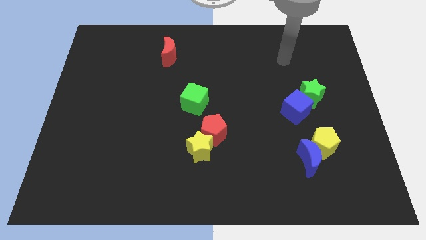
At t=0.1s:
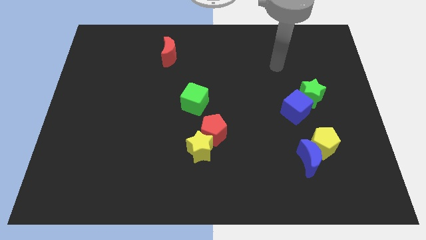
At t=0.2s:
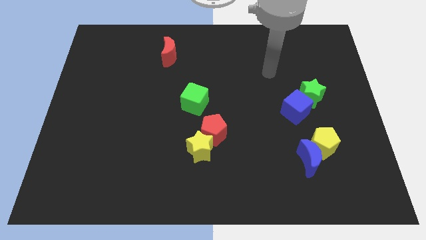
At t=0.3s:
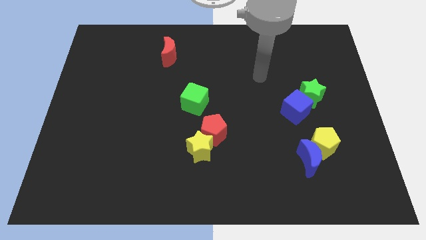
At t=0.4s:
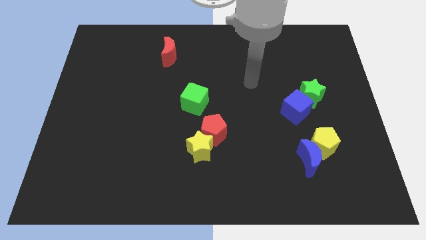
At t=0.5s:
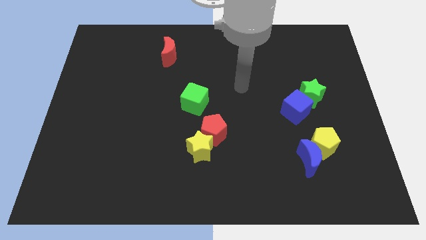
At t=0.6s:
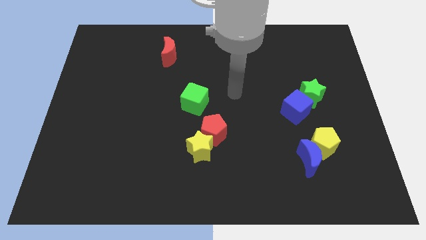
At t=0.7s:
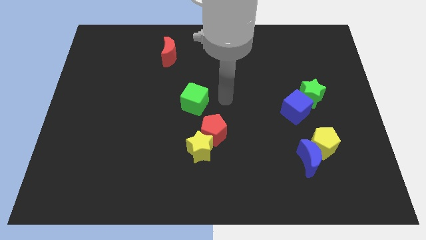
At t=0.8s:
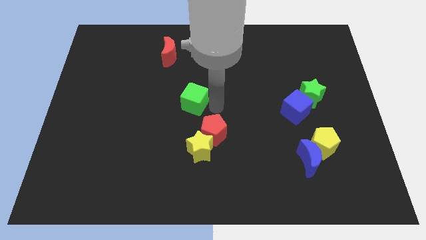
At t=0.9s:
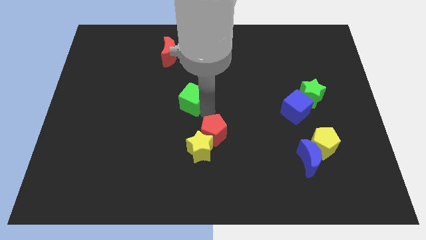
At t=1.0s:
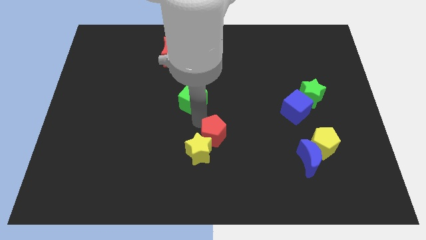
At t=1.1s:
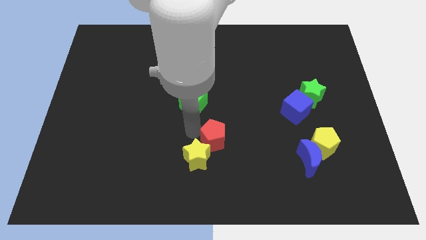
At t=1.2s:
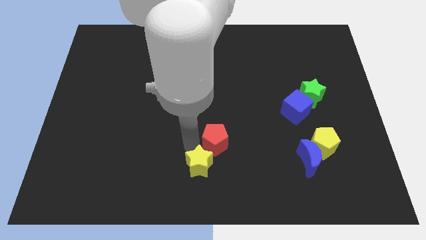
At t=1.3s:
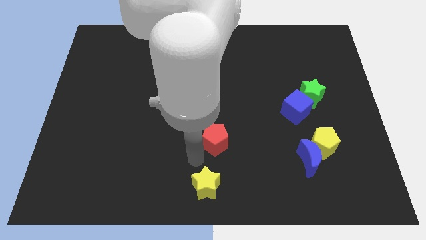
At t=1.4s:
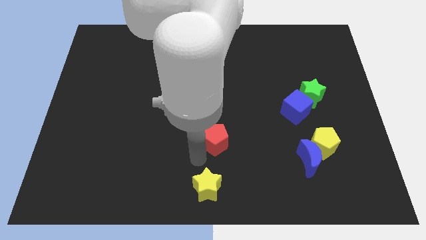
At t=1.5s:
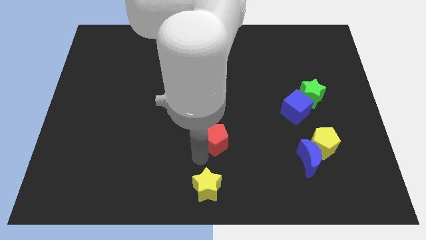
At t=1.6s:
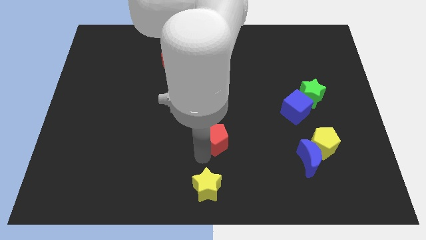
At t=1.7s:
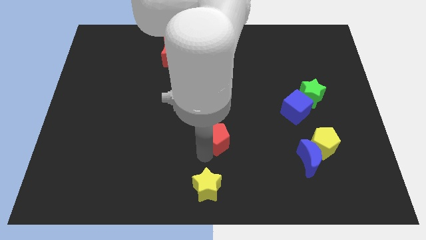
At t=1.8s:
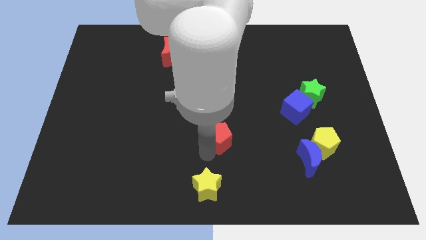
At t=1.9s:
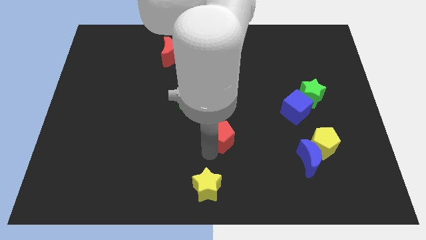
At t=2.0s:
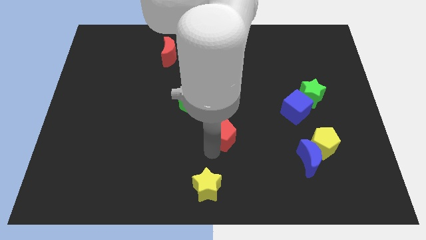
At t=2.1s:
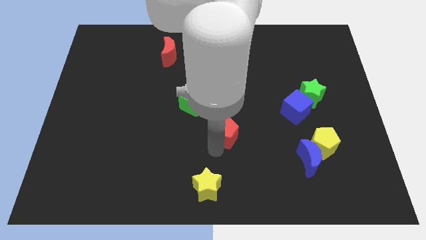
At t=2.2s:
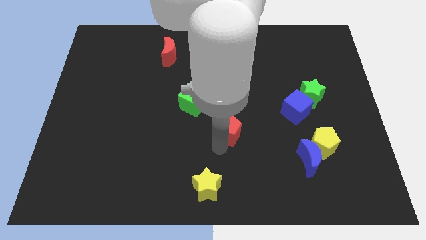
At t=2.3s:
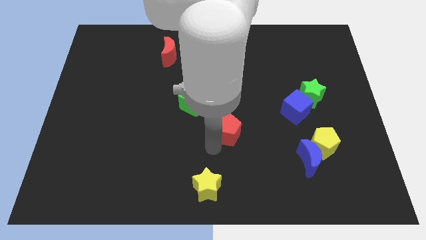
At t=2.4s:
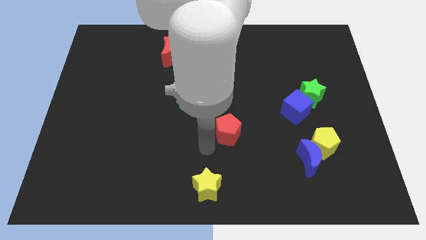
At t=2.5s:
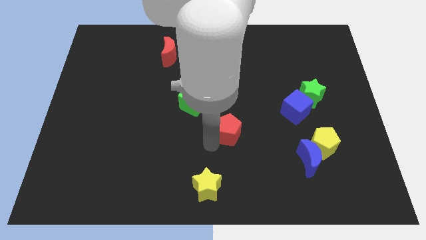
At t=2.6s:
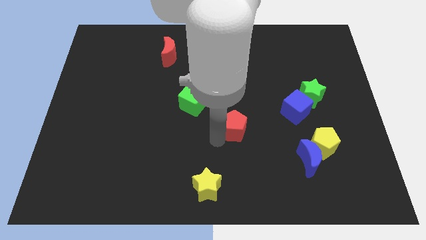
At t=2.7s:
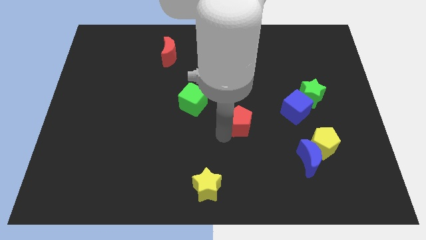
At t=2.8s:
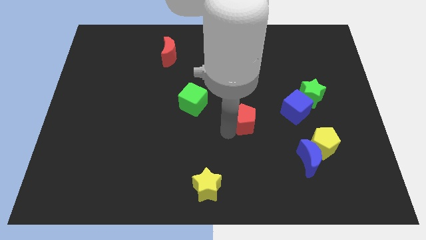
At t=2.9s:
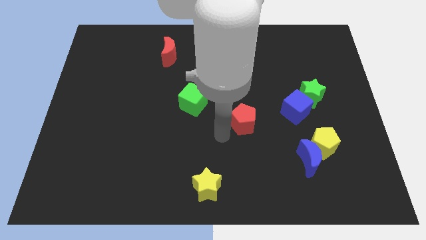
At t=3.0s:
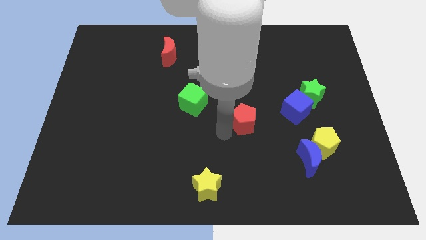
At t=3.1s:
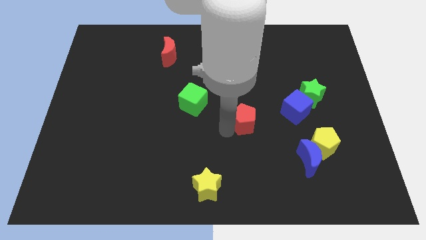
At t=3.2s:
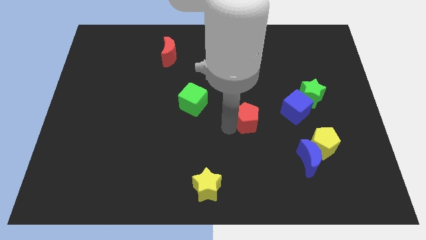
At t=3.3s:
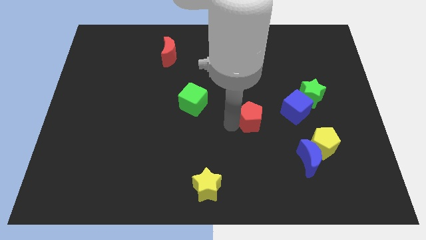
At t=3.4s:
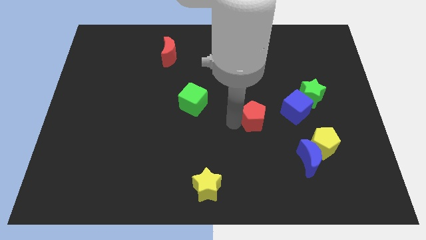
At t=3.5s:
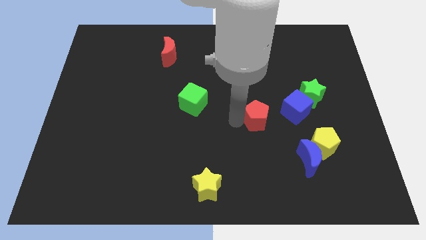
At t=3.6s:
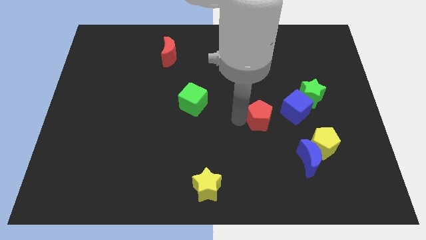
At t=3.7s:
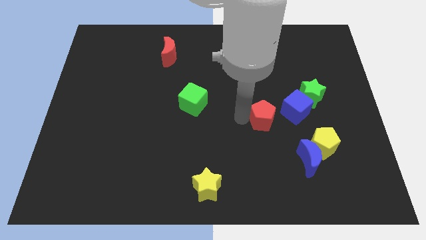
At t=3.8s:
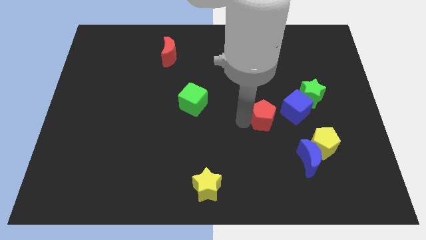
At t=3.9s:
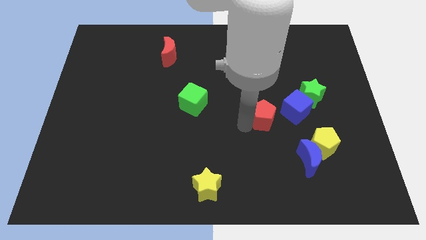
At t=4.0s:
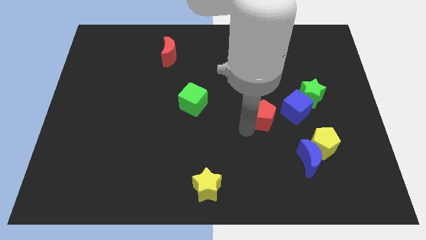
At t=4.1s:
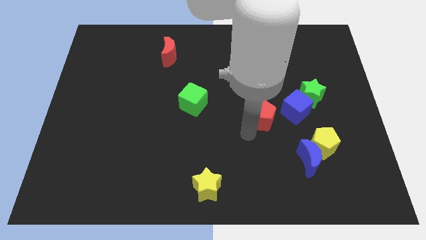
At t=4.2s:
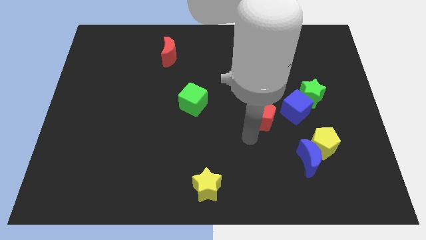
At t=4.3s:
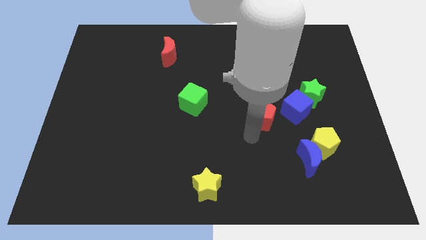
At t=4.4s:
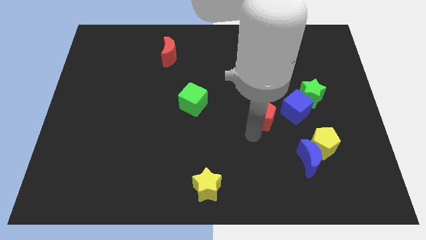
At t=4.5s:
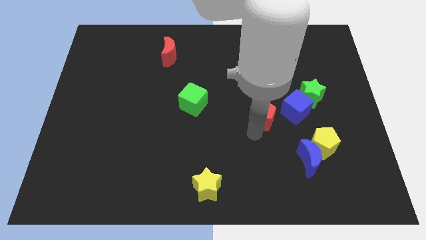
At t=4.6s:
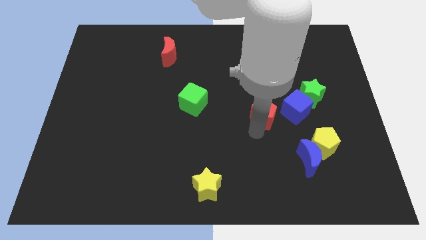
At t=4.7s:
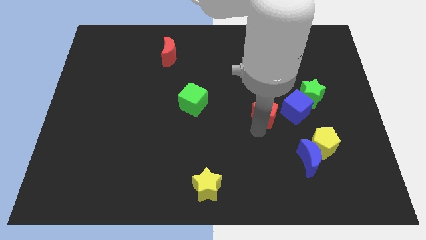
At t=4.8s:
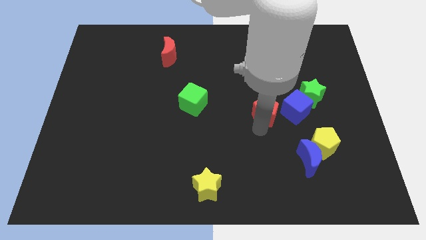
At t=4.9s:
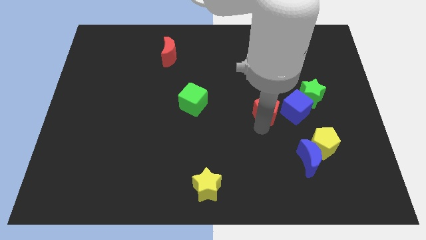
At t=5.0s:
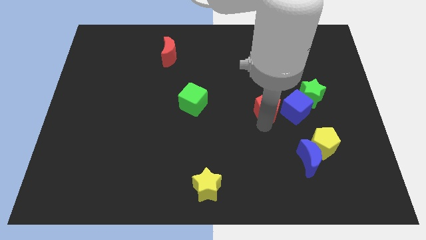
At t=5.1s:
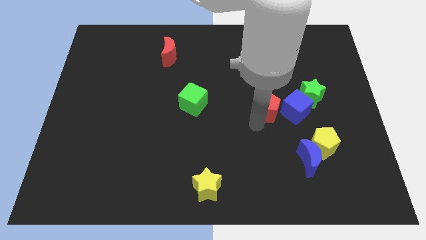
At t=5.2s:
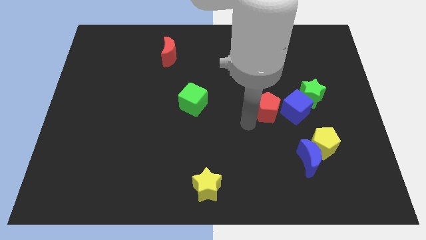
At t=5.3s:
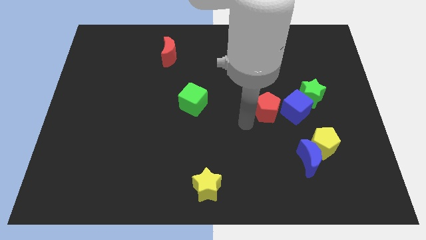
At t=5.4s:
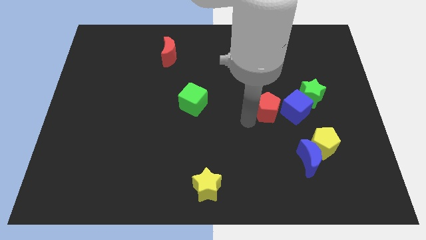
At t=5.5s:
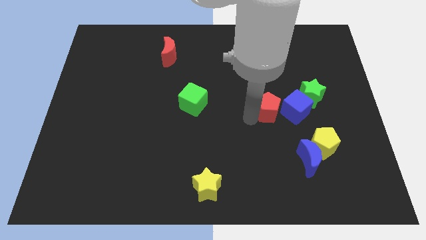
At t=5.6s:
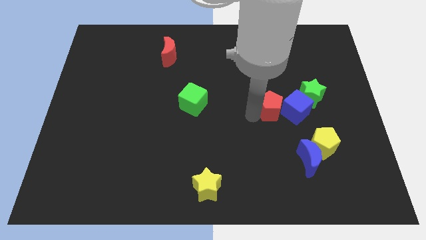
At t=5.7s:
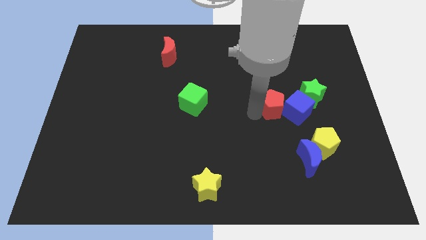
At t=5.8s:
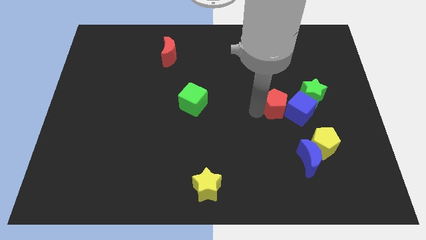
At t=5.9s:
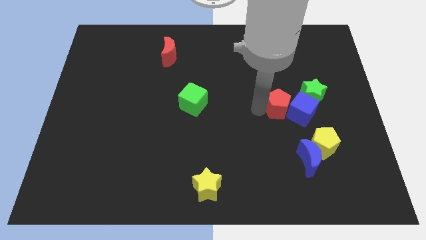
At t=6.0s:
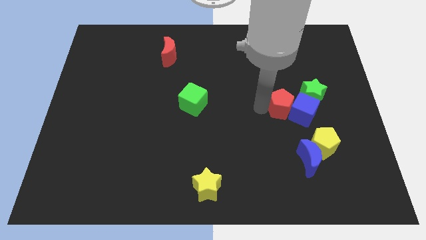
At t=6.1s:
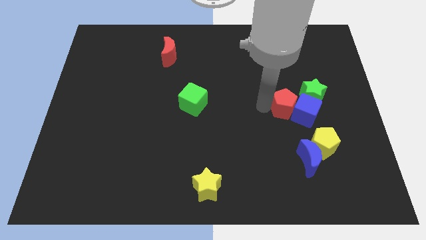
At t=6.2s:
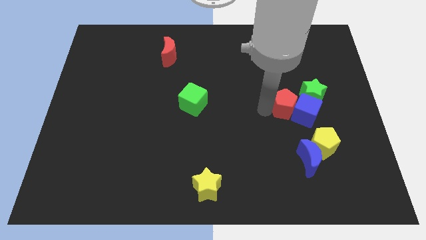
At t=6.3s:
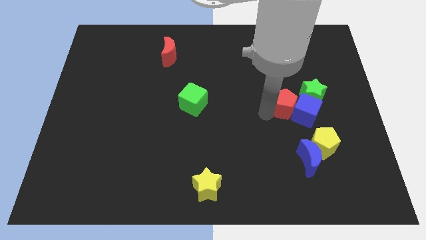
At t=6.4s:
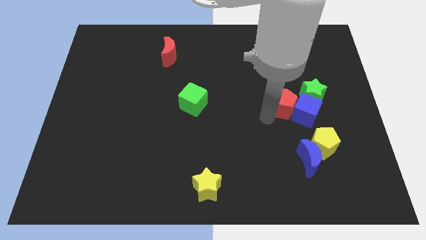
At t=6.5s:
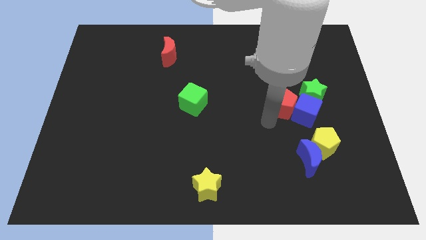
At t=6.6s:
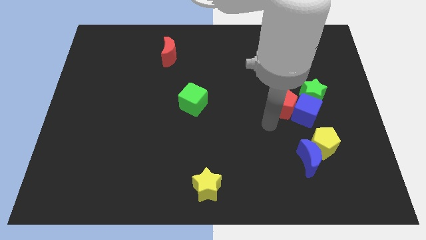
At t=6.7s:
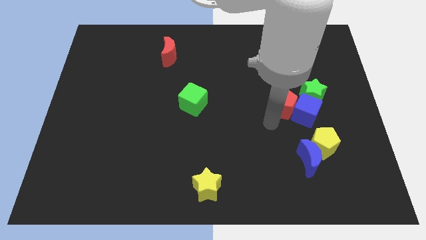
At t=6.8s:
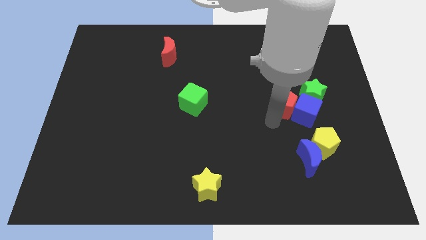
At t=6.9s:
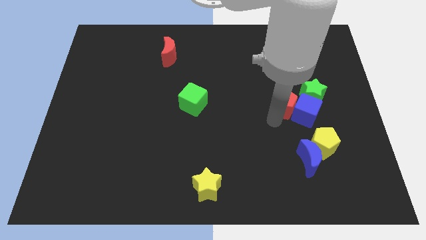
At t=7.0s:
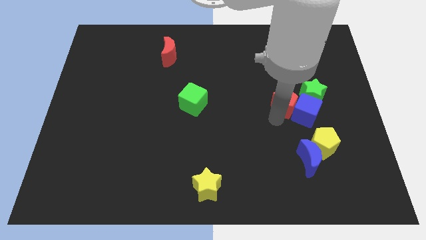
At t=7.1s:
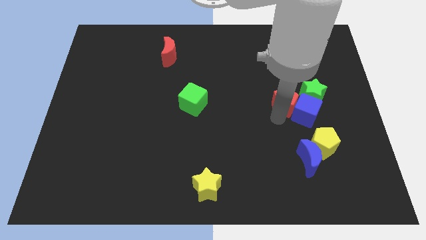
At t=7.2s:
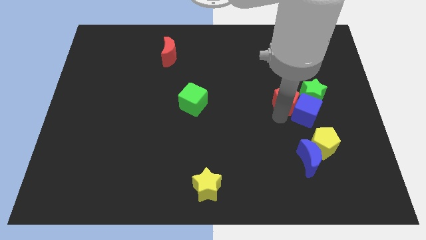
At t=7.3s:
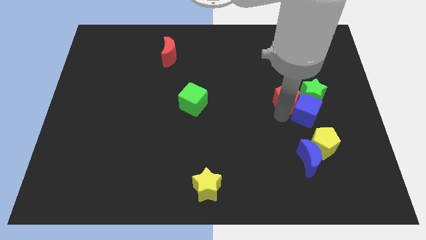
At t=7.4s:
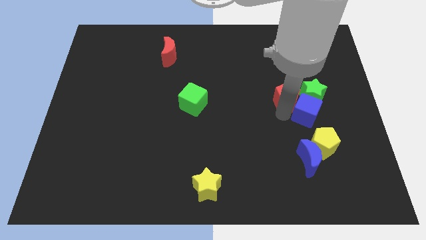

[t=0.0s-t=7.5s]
put the red pentagon next to the green star
